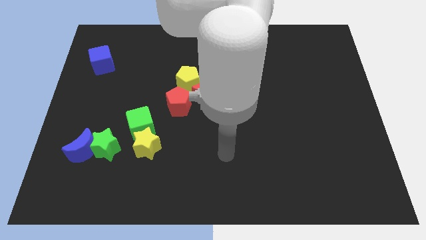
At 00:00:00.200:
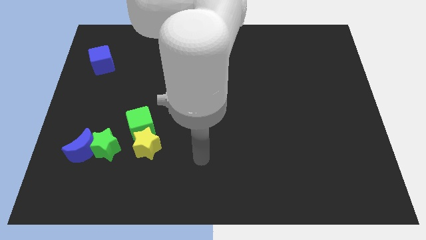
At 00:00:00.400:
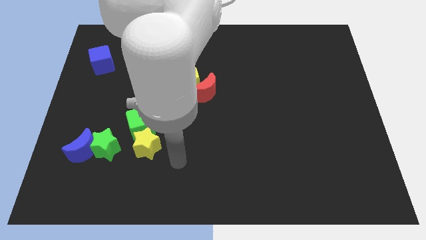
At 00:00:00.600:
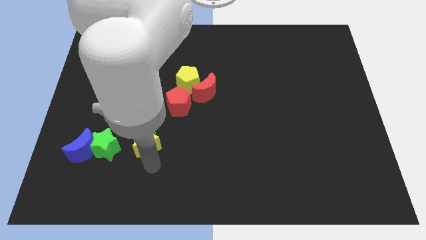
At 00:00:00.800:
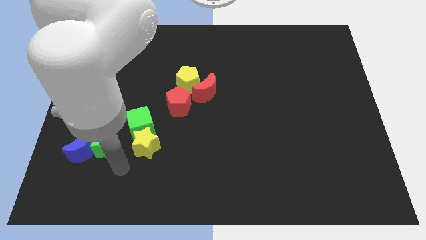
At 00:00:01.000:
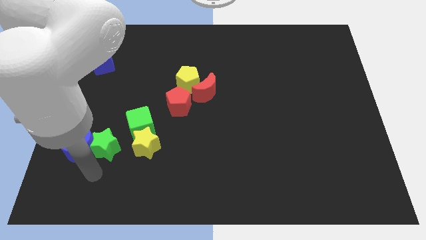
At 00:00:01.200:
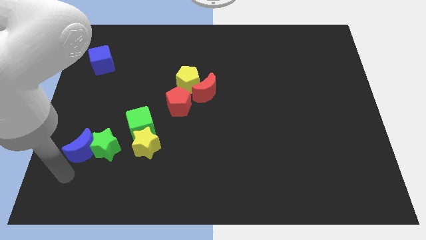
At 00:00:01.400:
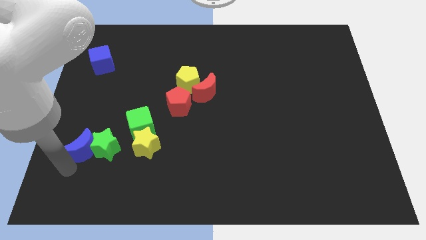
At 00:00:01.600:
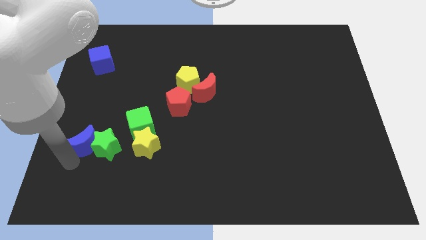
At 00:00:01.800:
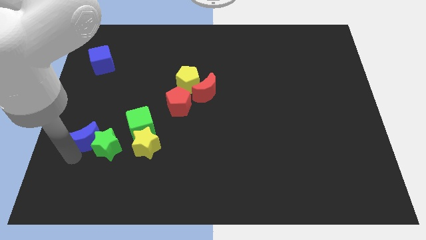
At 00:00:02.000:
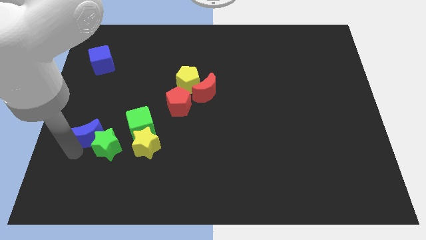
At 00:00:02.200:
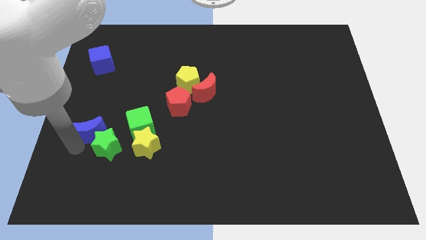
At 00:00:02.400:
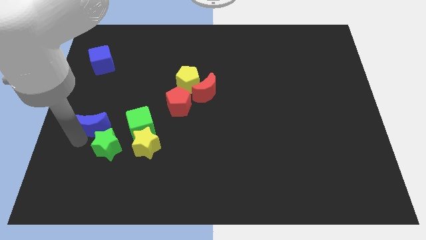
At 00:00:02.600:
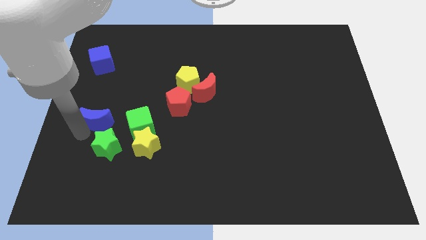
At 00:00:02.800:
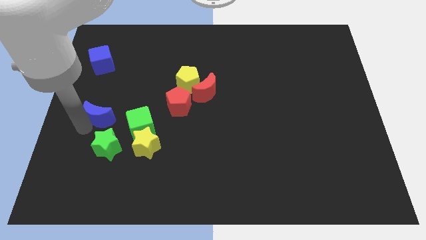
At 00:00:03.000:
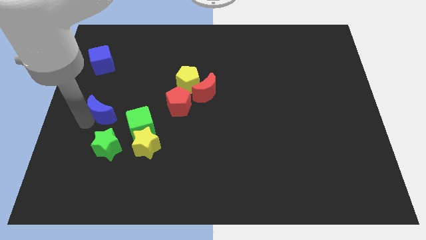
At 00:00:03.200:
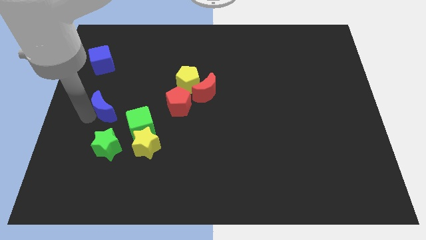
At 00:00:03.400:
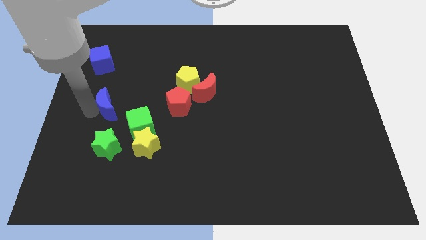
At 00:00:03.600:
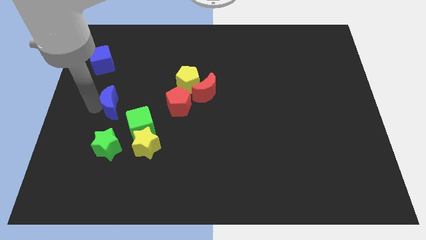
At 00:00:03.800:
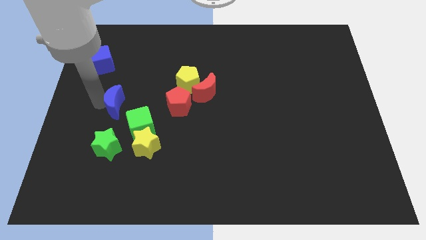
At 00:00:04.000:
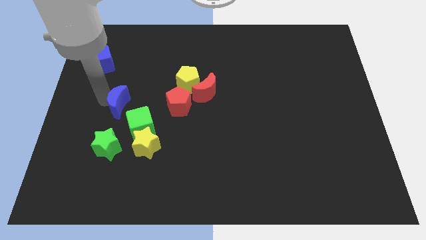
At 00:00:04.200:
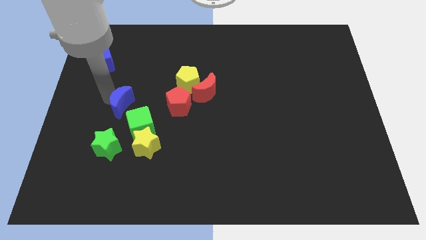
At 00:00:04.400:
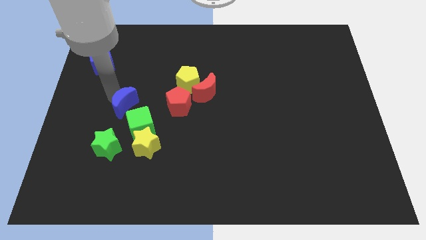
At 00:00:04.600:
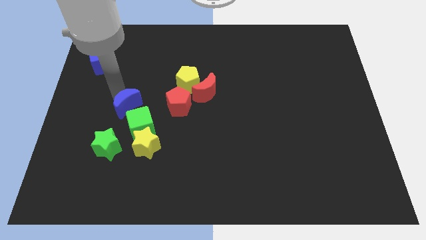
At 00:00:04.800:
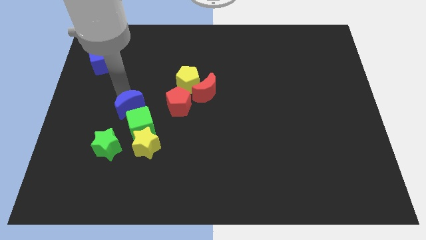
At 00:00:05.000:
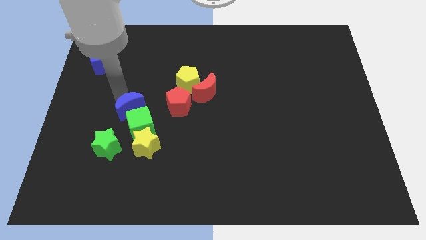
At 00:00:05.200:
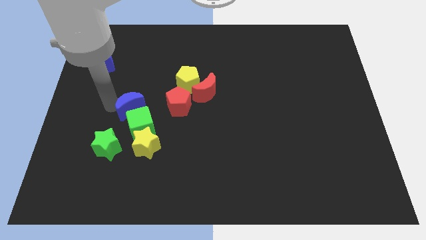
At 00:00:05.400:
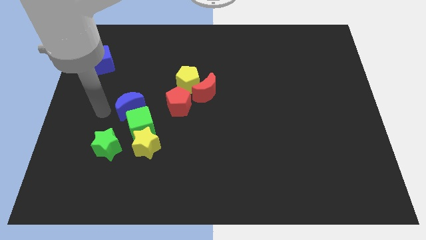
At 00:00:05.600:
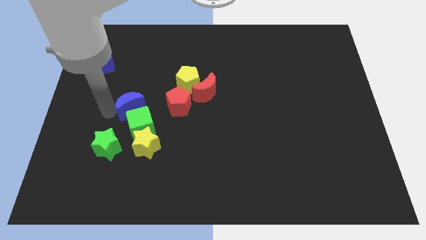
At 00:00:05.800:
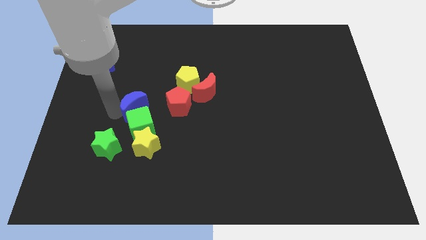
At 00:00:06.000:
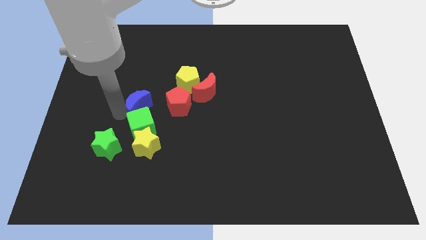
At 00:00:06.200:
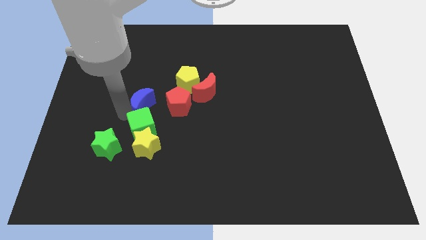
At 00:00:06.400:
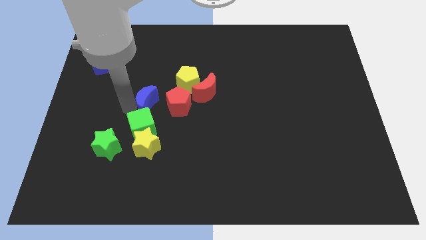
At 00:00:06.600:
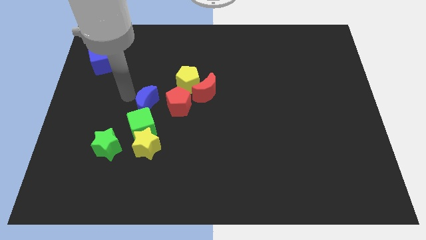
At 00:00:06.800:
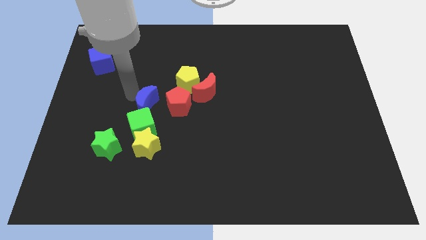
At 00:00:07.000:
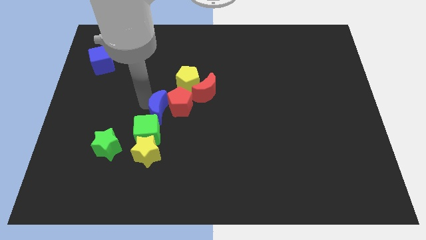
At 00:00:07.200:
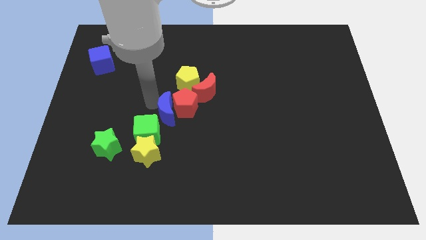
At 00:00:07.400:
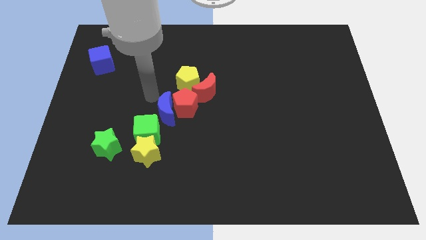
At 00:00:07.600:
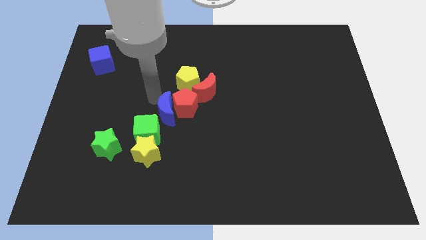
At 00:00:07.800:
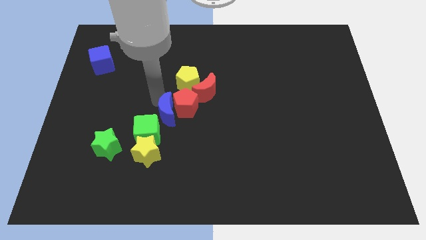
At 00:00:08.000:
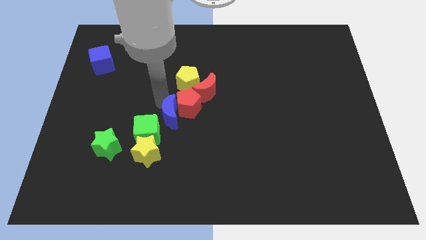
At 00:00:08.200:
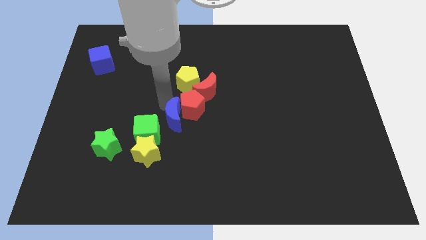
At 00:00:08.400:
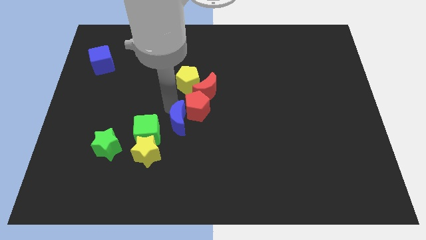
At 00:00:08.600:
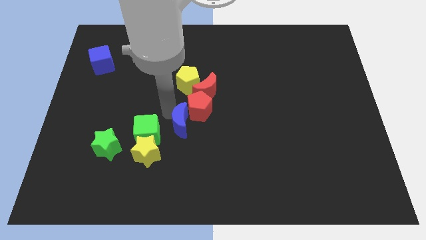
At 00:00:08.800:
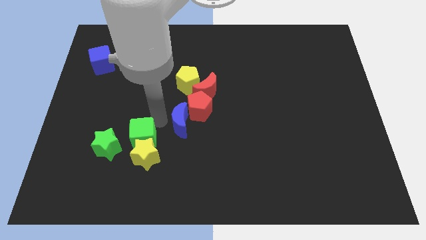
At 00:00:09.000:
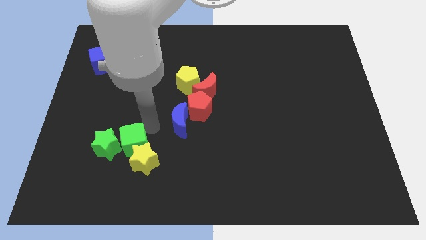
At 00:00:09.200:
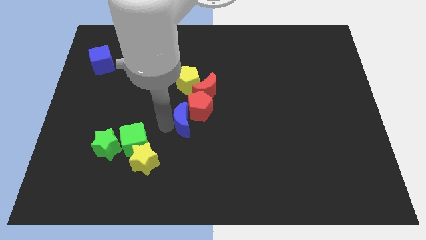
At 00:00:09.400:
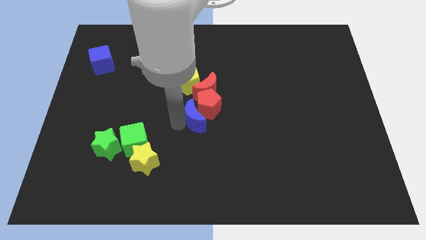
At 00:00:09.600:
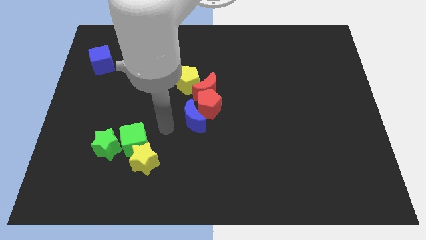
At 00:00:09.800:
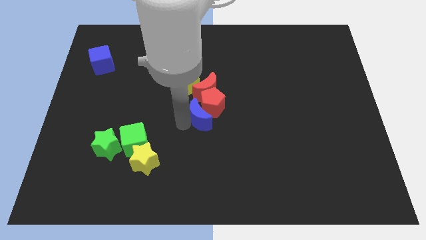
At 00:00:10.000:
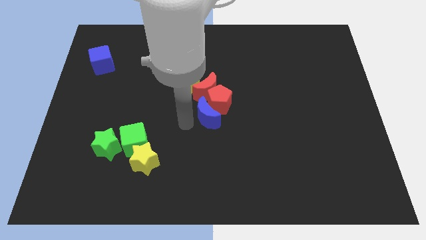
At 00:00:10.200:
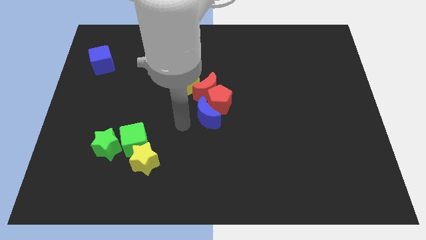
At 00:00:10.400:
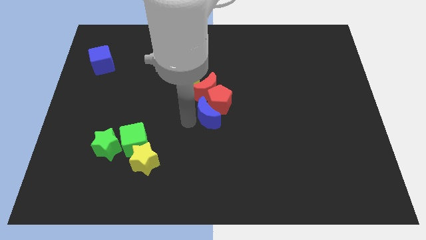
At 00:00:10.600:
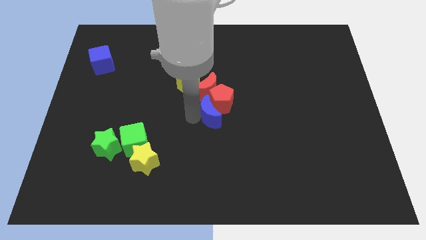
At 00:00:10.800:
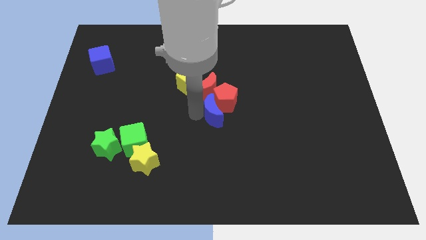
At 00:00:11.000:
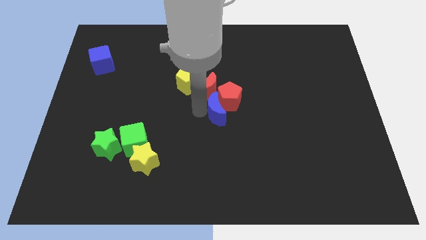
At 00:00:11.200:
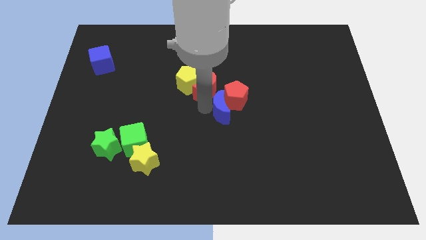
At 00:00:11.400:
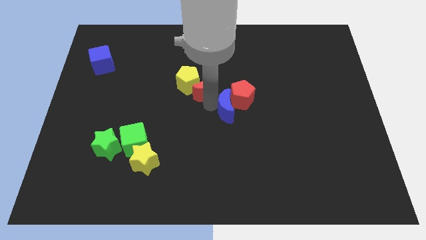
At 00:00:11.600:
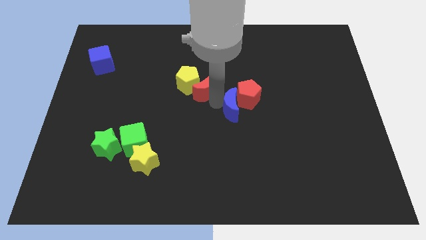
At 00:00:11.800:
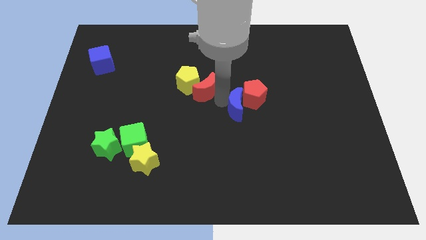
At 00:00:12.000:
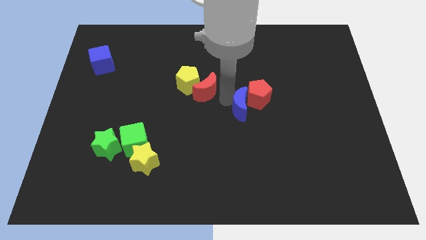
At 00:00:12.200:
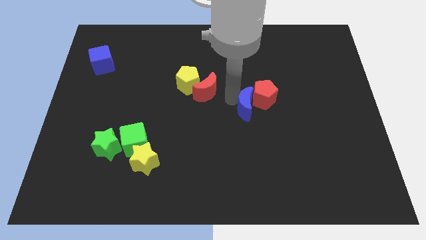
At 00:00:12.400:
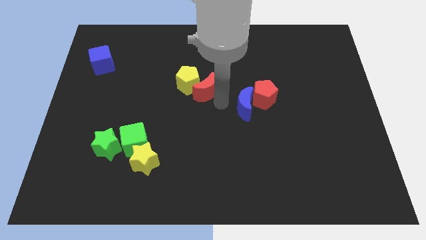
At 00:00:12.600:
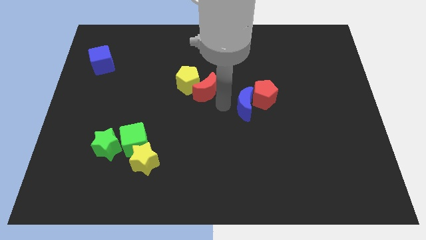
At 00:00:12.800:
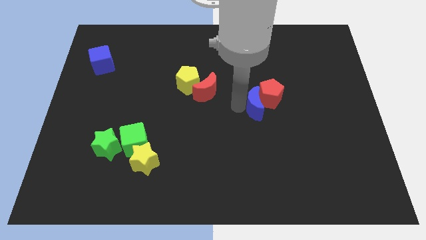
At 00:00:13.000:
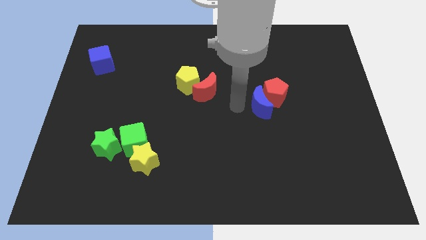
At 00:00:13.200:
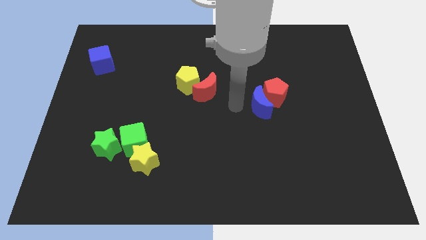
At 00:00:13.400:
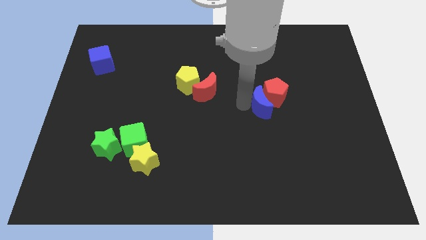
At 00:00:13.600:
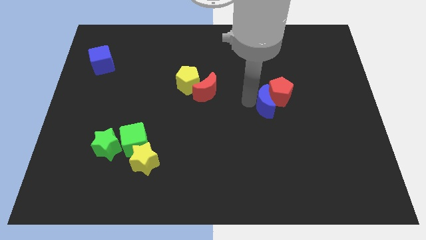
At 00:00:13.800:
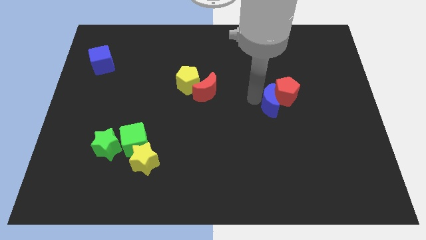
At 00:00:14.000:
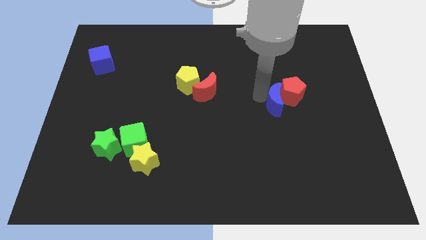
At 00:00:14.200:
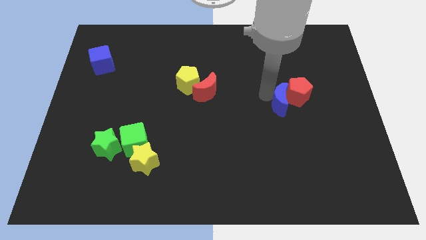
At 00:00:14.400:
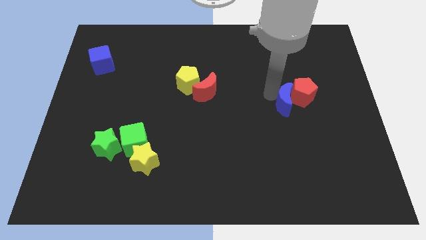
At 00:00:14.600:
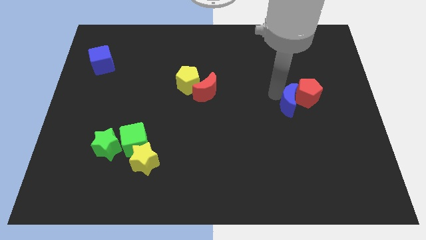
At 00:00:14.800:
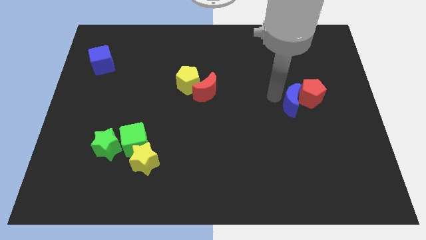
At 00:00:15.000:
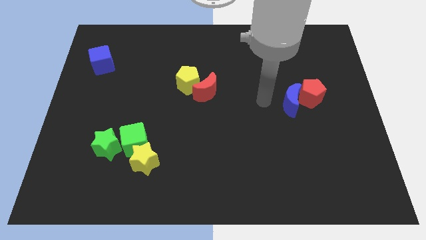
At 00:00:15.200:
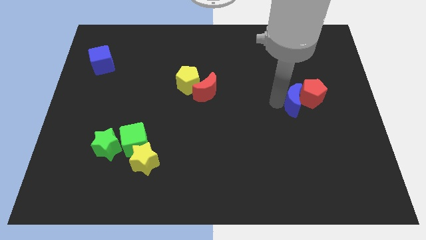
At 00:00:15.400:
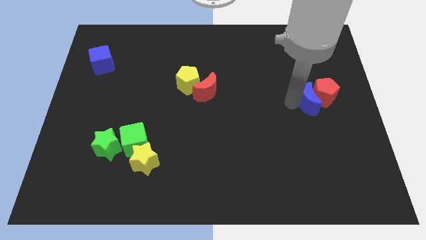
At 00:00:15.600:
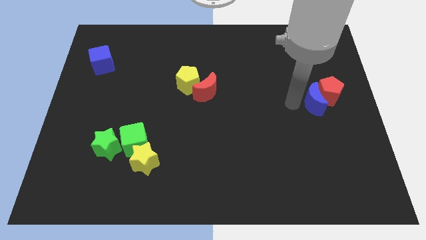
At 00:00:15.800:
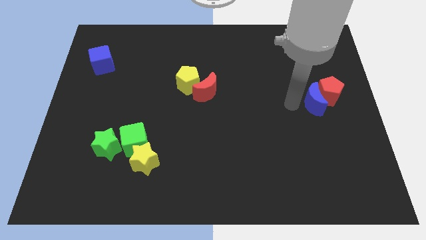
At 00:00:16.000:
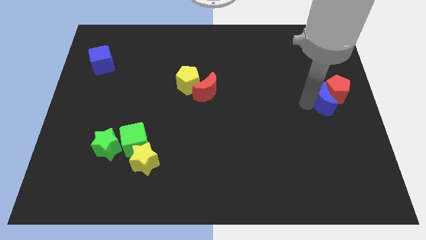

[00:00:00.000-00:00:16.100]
push the blue moon to the right side
